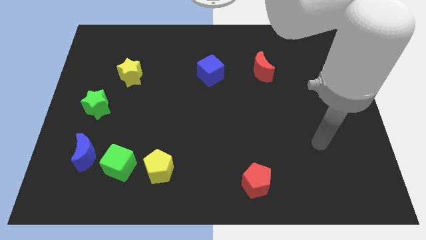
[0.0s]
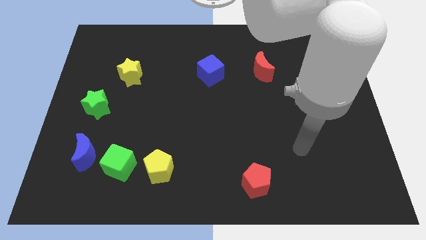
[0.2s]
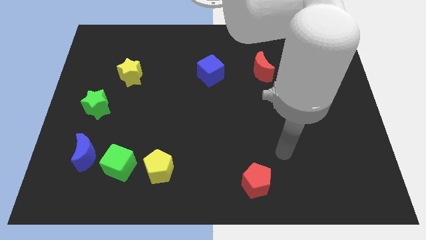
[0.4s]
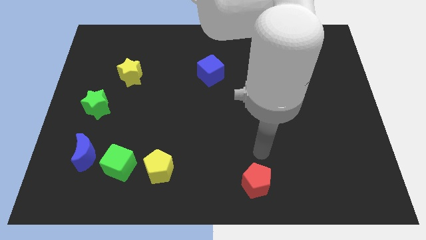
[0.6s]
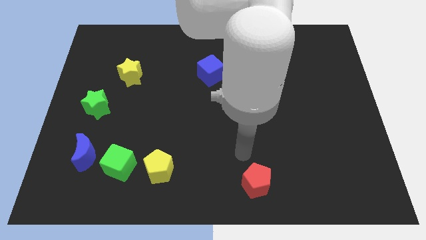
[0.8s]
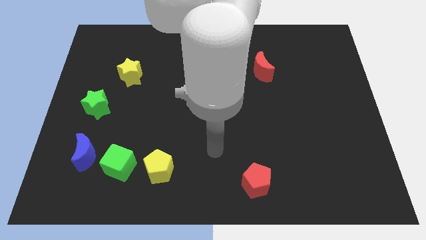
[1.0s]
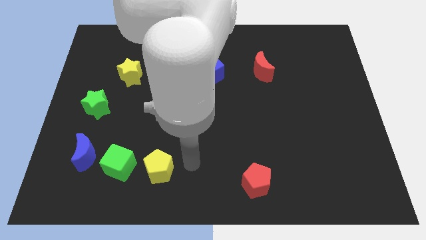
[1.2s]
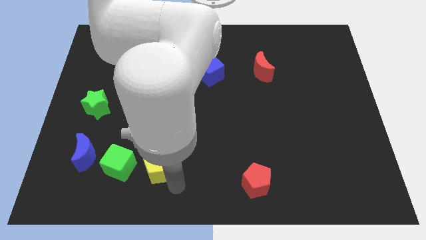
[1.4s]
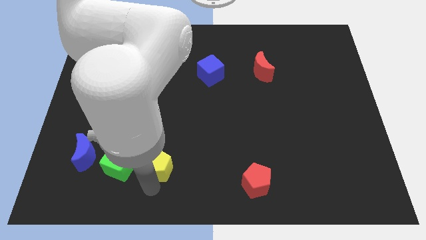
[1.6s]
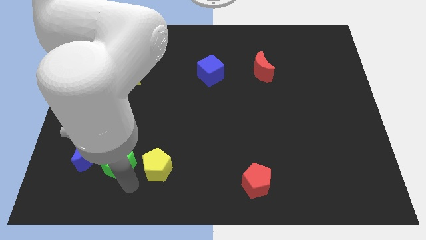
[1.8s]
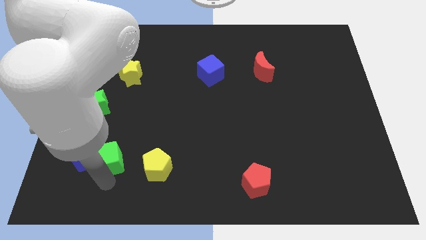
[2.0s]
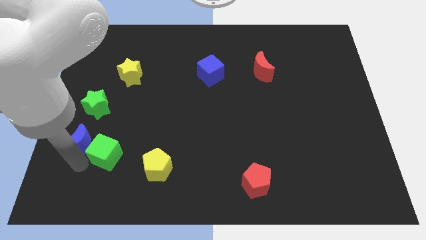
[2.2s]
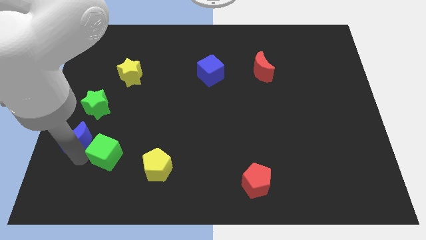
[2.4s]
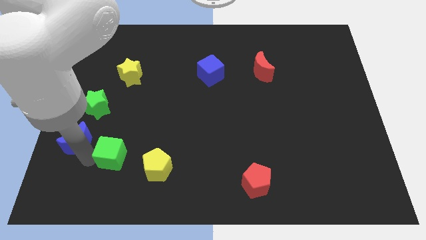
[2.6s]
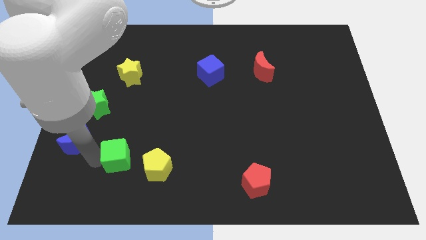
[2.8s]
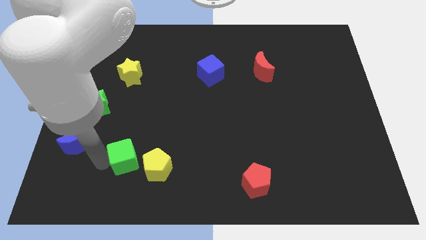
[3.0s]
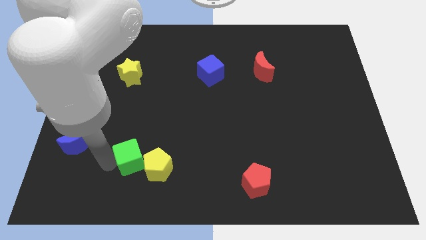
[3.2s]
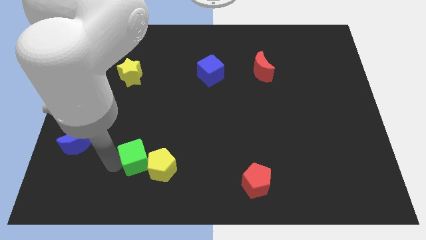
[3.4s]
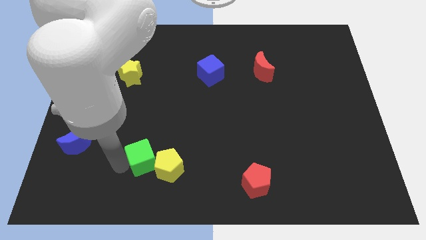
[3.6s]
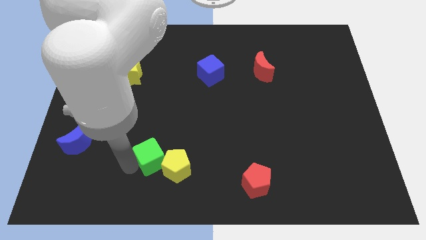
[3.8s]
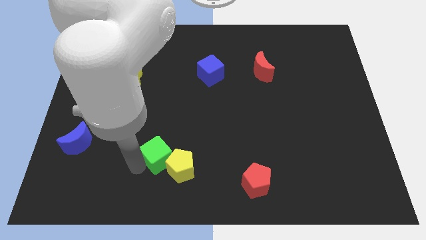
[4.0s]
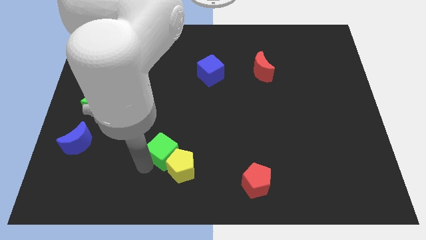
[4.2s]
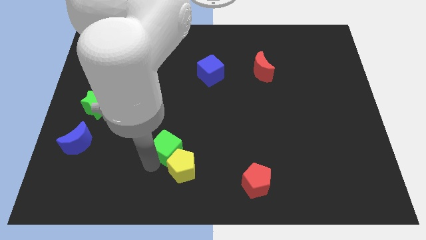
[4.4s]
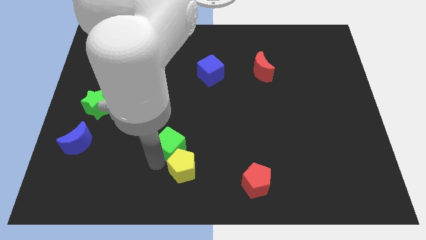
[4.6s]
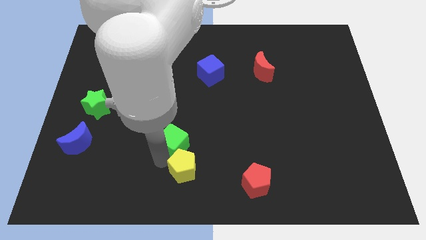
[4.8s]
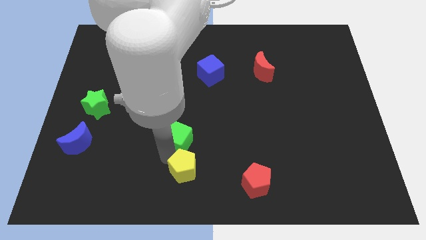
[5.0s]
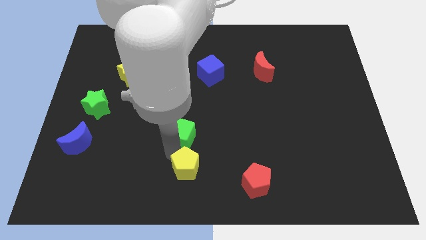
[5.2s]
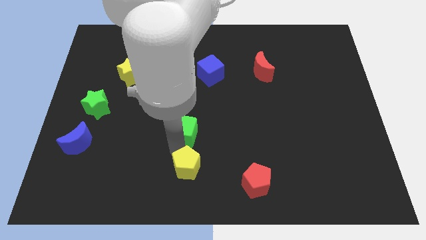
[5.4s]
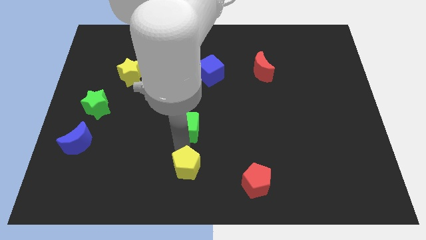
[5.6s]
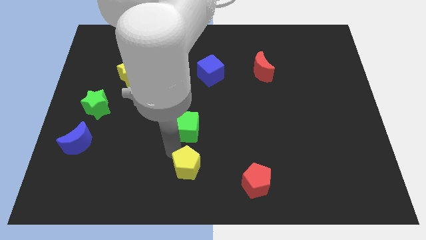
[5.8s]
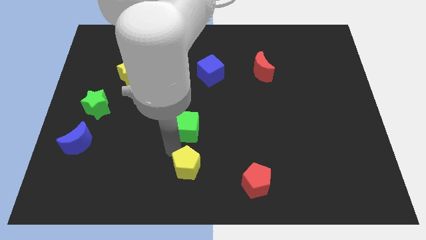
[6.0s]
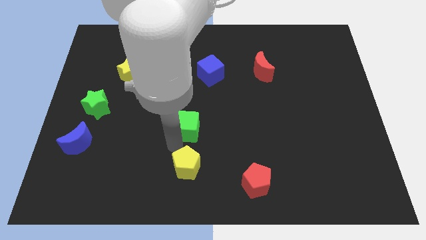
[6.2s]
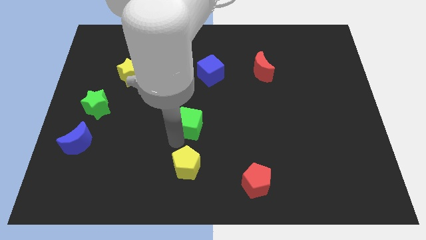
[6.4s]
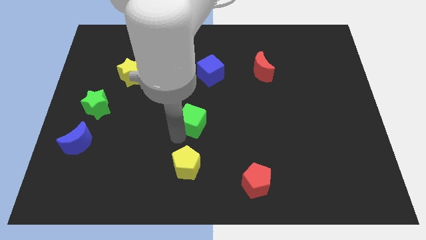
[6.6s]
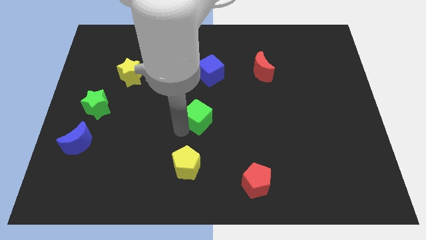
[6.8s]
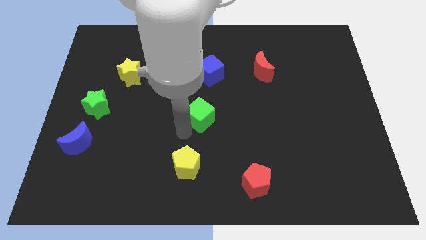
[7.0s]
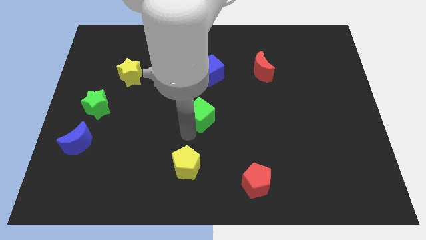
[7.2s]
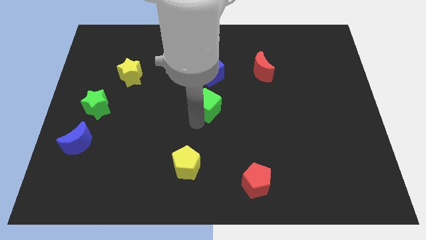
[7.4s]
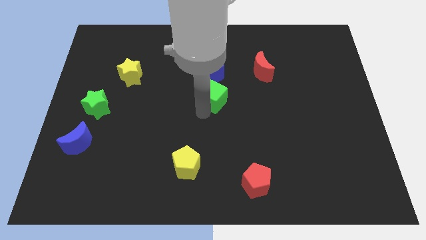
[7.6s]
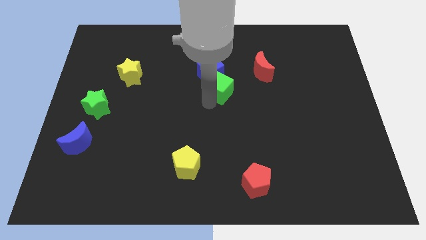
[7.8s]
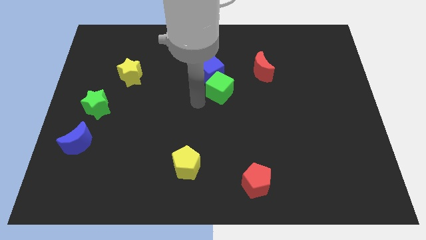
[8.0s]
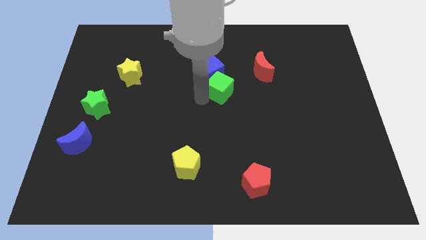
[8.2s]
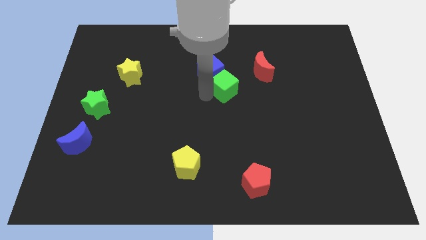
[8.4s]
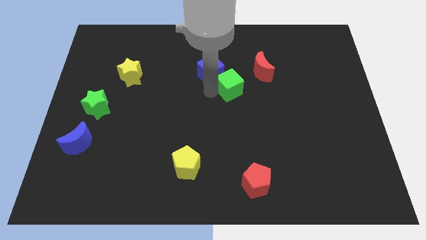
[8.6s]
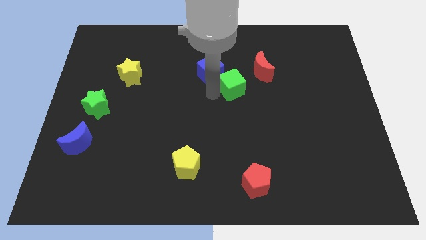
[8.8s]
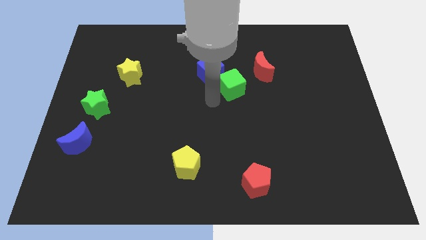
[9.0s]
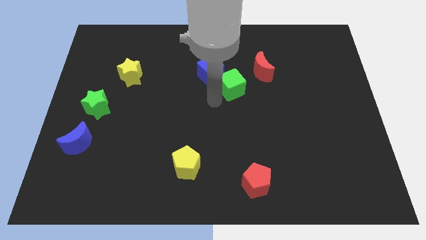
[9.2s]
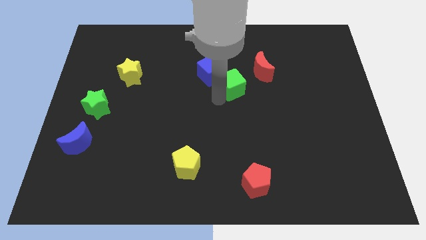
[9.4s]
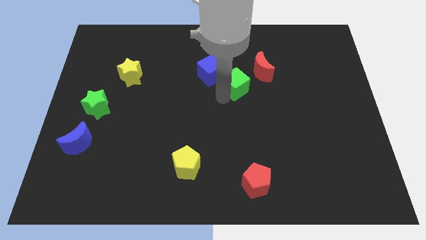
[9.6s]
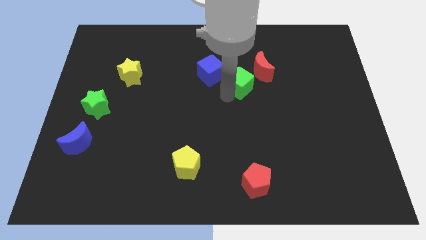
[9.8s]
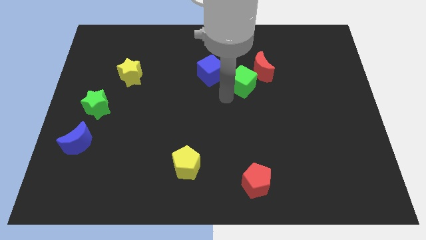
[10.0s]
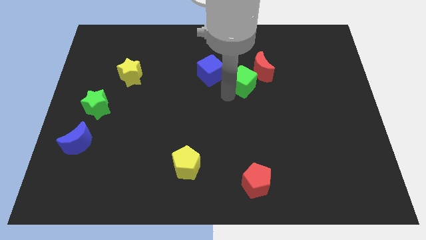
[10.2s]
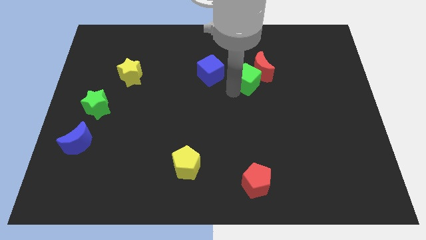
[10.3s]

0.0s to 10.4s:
put the green cube towards the red moon

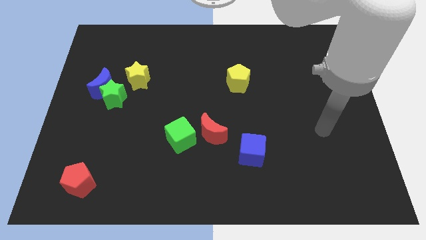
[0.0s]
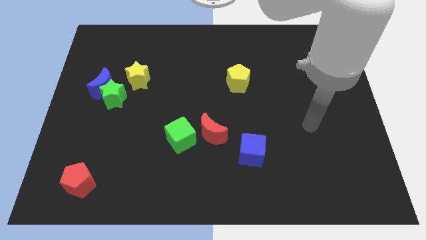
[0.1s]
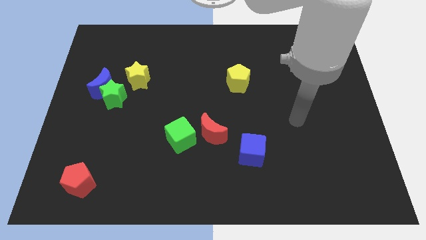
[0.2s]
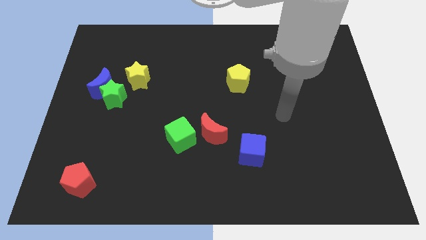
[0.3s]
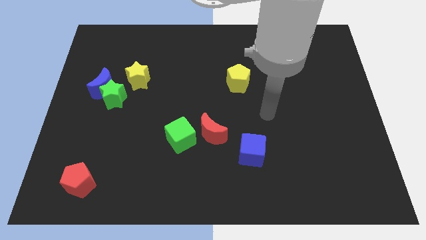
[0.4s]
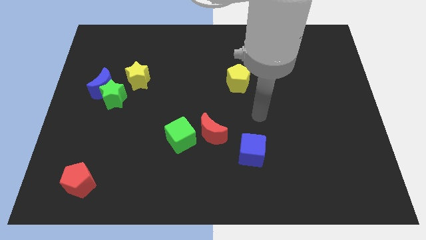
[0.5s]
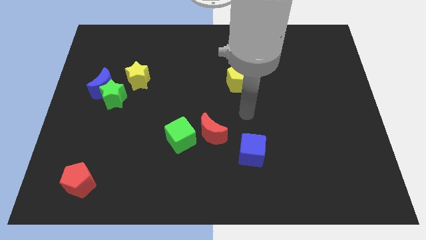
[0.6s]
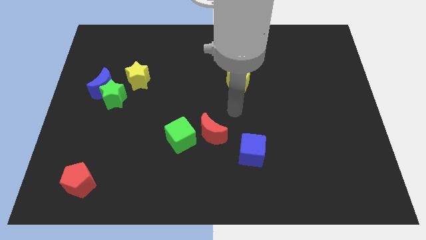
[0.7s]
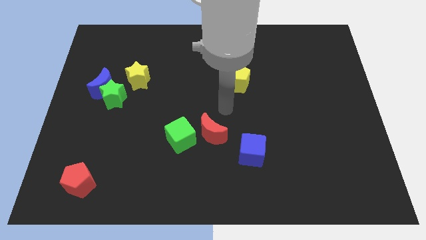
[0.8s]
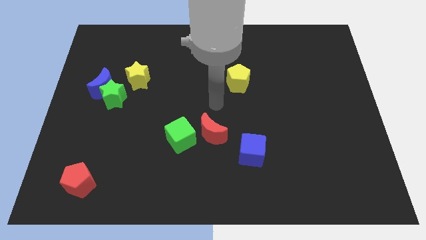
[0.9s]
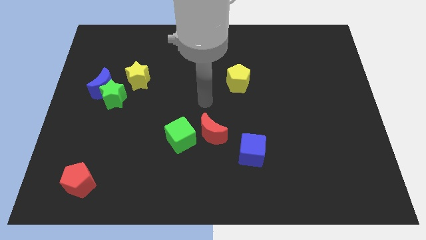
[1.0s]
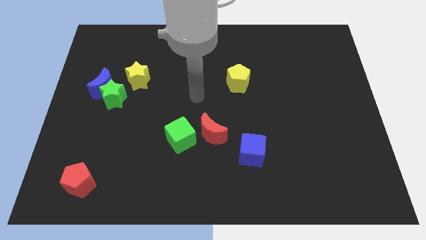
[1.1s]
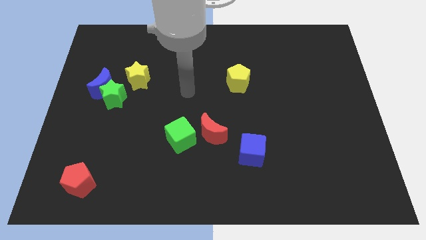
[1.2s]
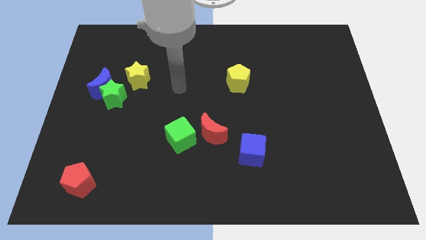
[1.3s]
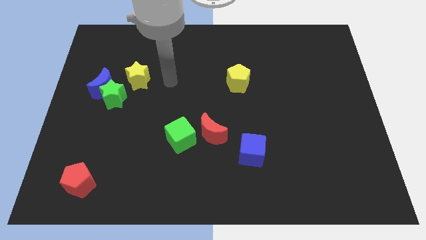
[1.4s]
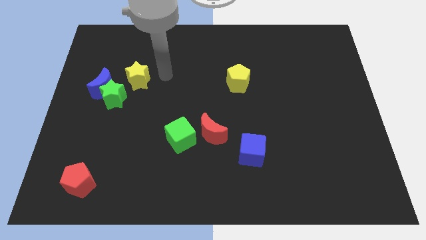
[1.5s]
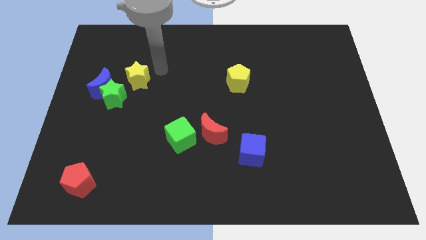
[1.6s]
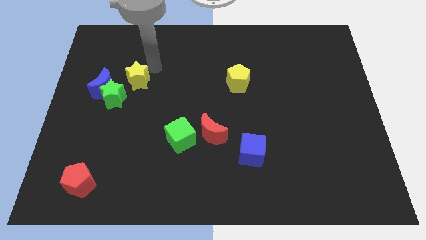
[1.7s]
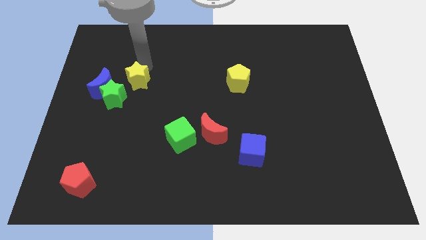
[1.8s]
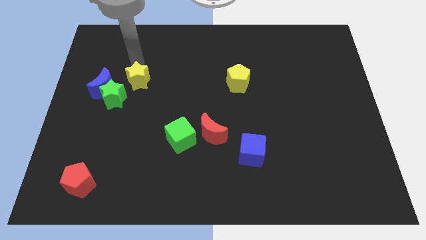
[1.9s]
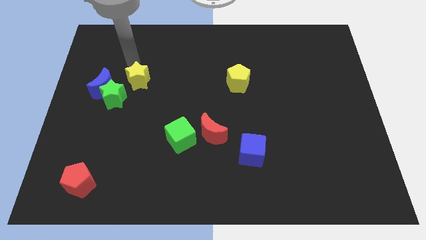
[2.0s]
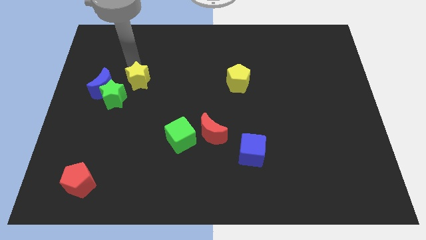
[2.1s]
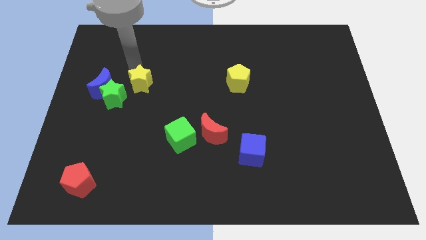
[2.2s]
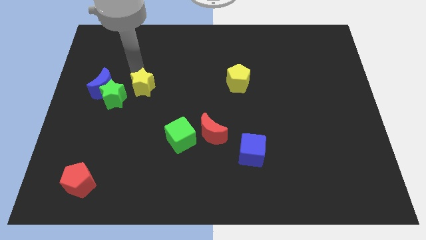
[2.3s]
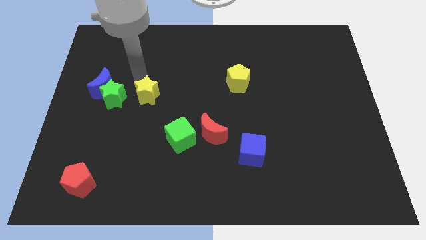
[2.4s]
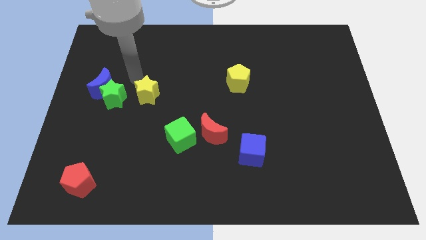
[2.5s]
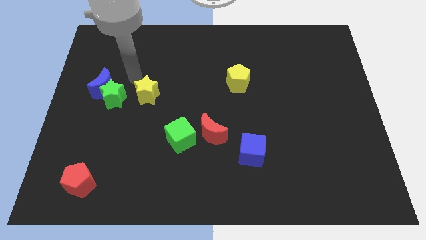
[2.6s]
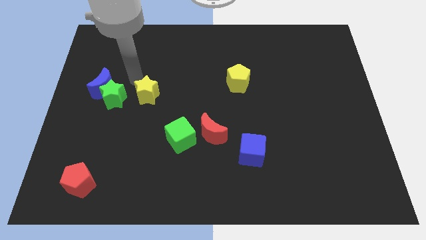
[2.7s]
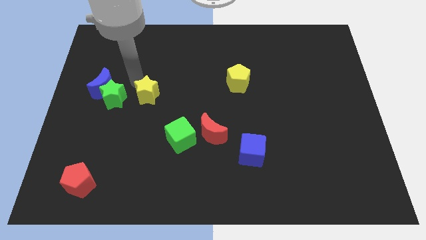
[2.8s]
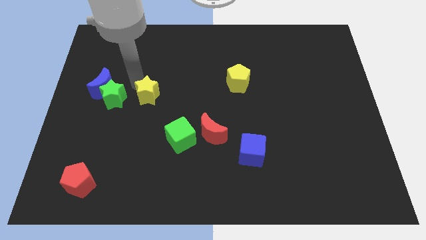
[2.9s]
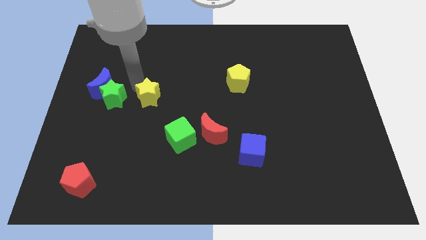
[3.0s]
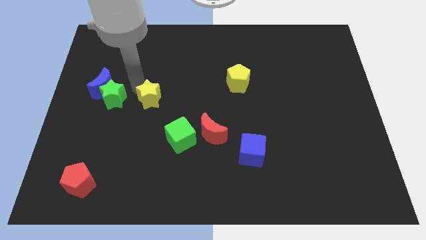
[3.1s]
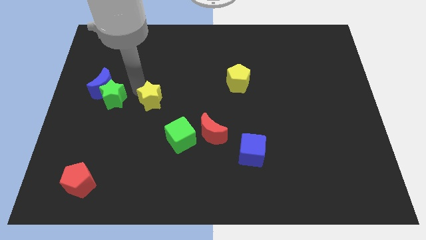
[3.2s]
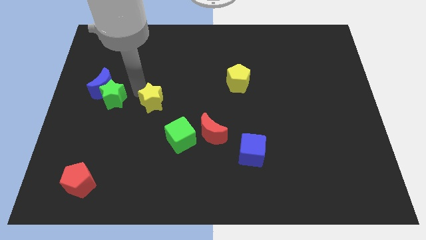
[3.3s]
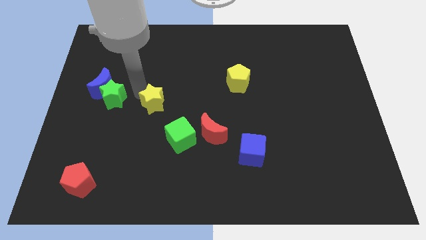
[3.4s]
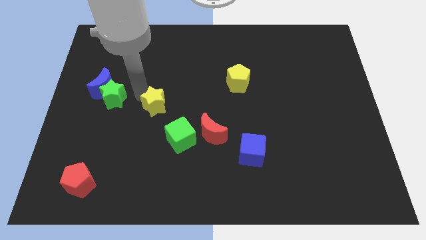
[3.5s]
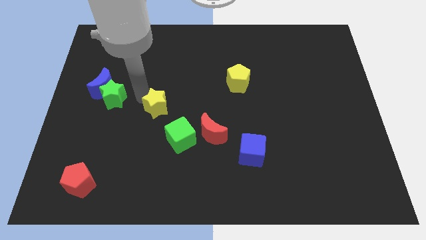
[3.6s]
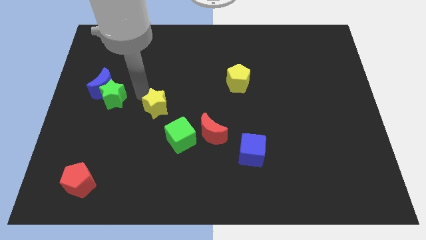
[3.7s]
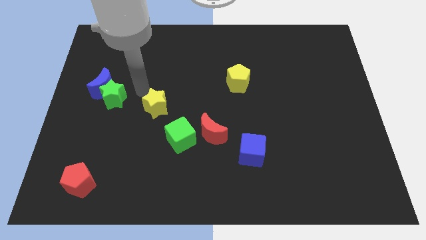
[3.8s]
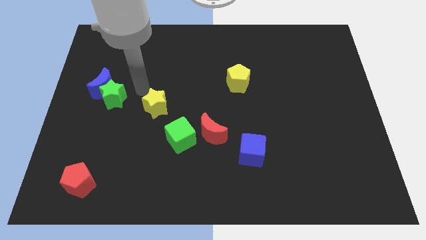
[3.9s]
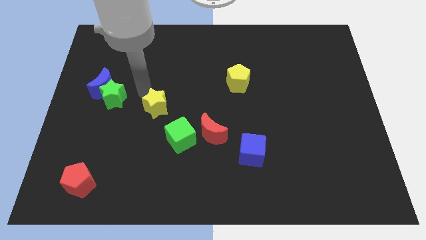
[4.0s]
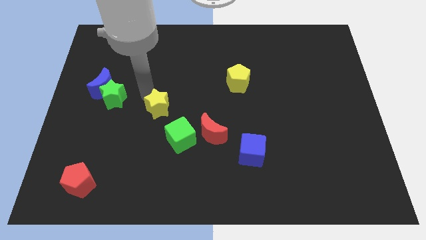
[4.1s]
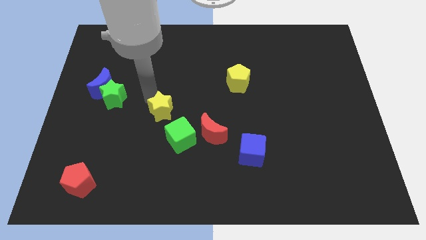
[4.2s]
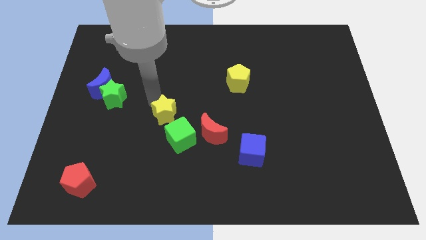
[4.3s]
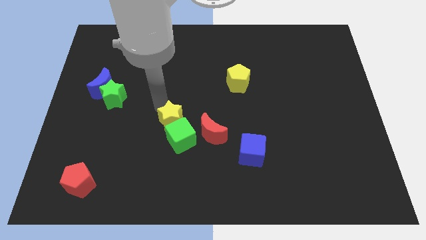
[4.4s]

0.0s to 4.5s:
put the yellow star next to the green cube
